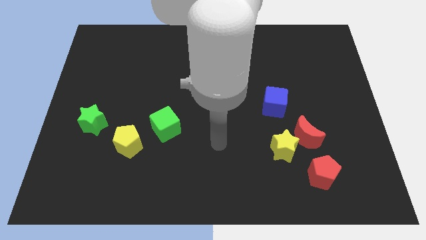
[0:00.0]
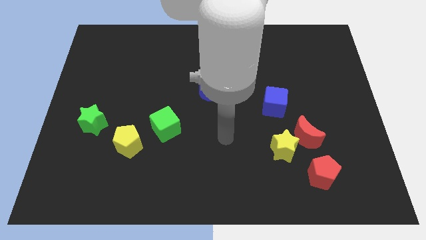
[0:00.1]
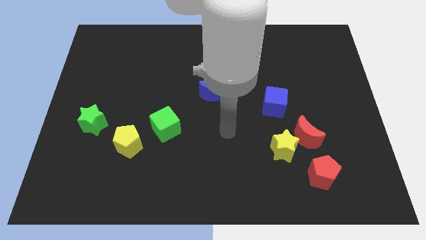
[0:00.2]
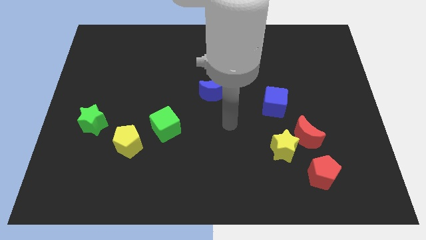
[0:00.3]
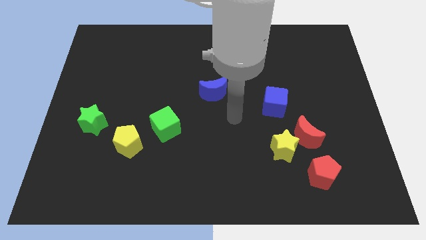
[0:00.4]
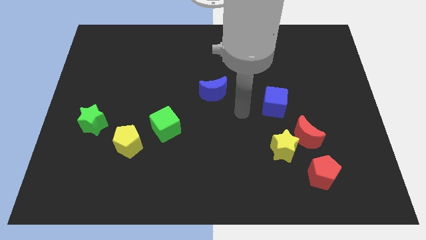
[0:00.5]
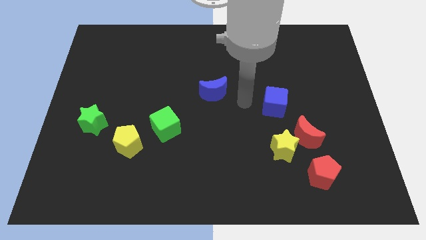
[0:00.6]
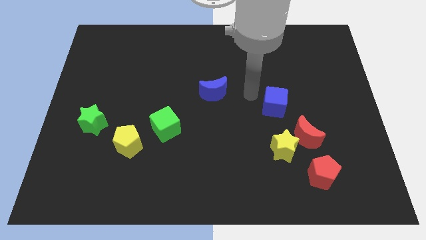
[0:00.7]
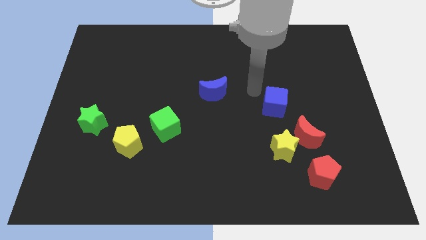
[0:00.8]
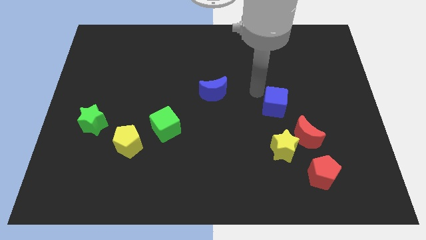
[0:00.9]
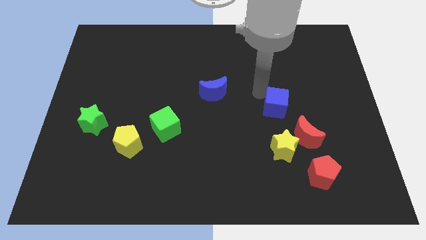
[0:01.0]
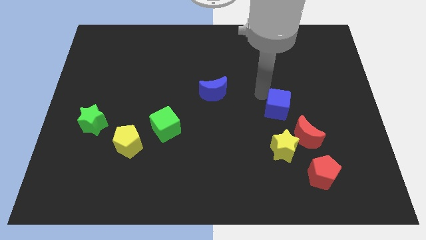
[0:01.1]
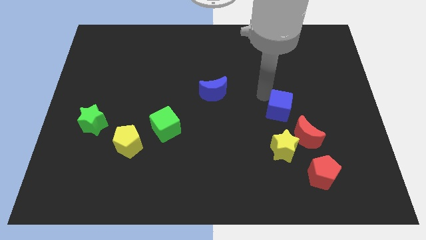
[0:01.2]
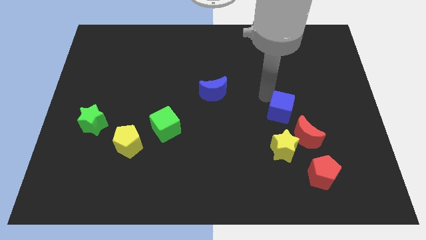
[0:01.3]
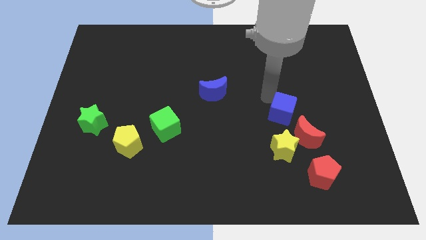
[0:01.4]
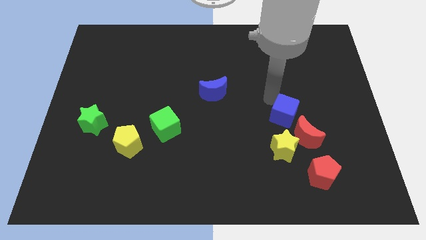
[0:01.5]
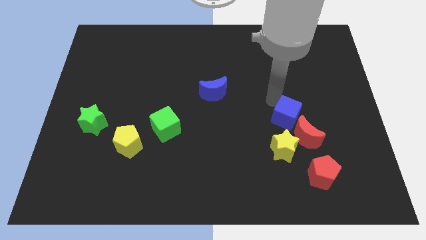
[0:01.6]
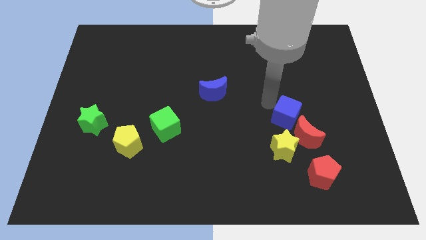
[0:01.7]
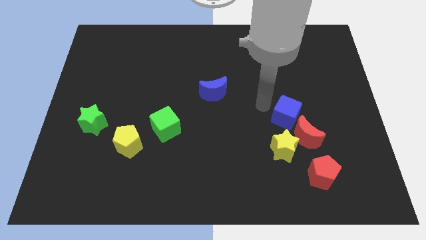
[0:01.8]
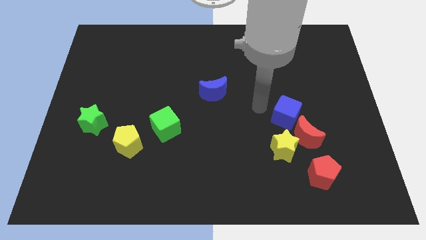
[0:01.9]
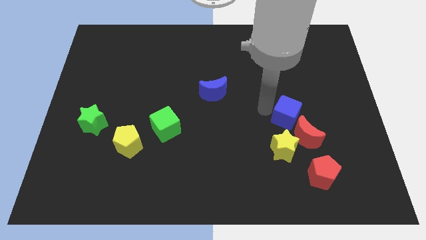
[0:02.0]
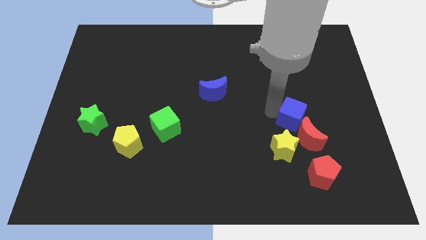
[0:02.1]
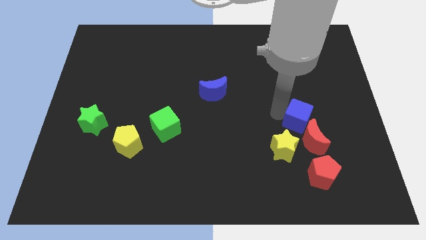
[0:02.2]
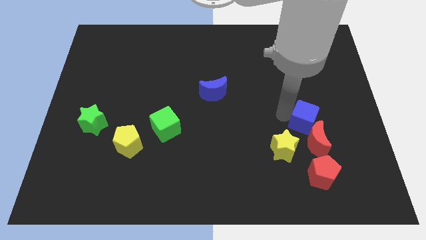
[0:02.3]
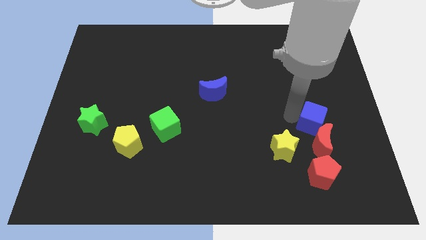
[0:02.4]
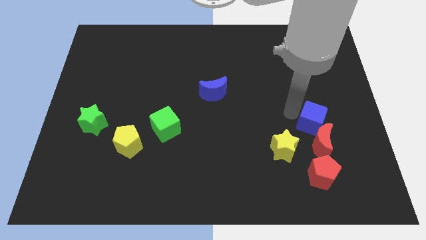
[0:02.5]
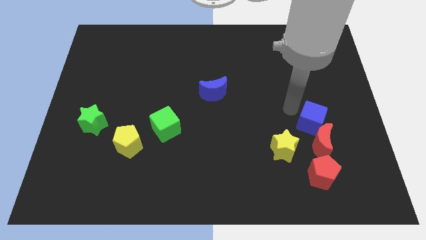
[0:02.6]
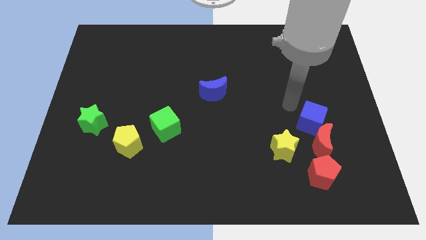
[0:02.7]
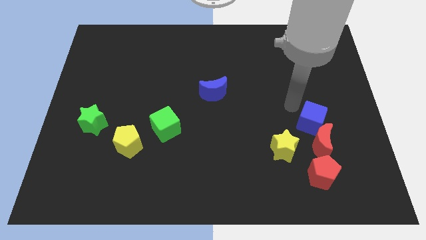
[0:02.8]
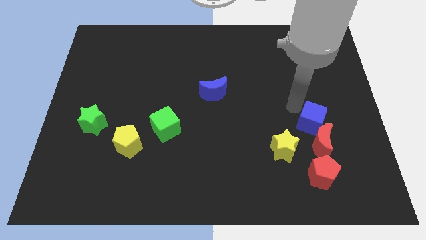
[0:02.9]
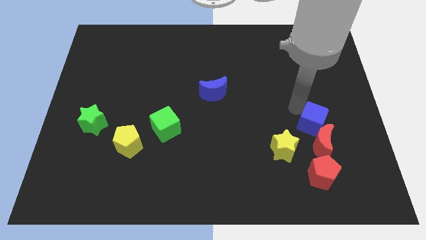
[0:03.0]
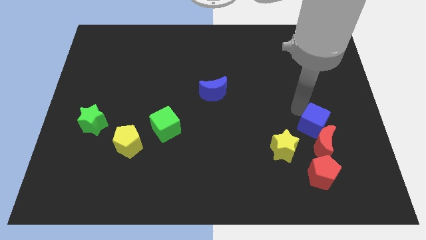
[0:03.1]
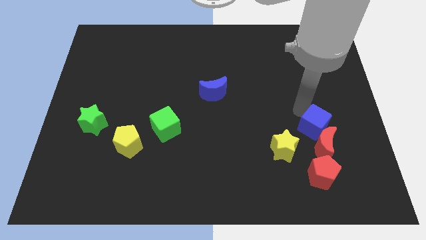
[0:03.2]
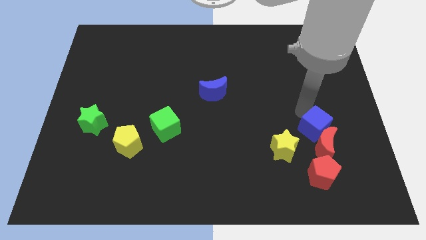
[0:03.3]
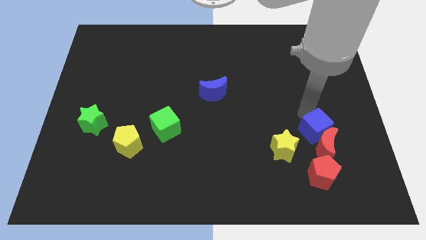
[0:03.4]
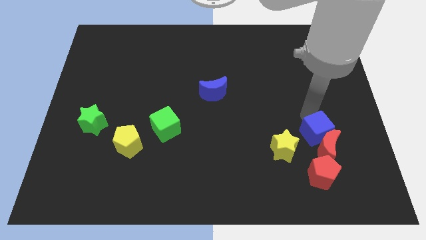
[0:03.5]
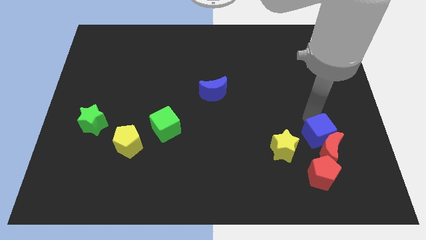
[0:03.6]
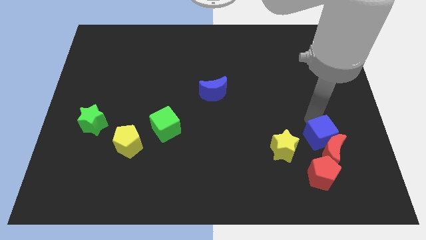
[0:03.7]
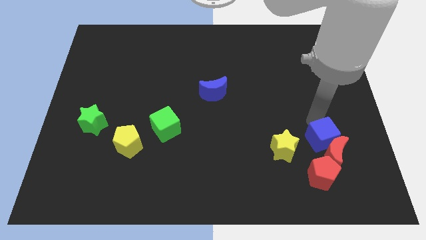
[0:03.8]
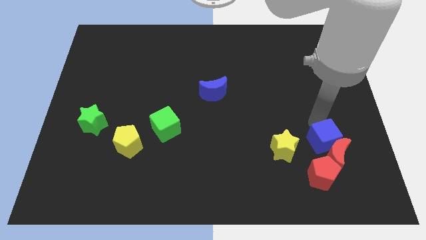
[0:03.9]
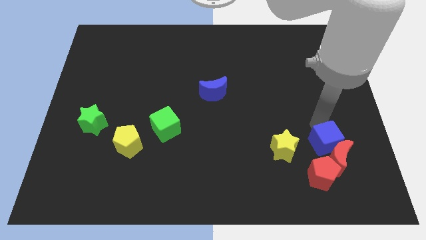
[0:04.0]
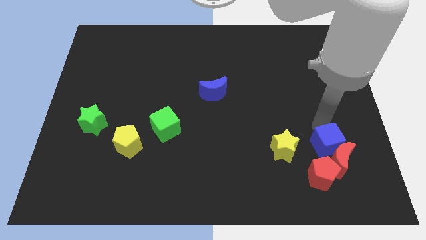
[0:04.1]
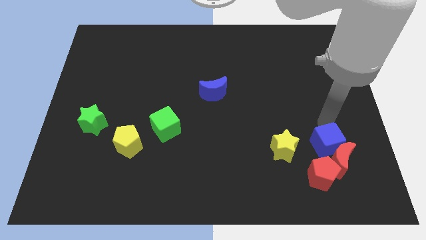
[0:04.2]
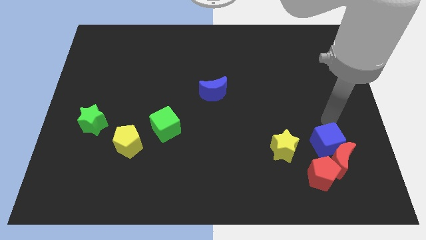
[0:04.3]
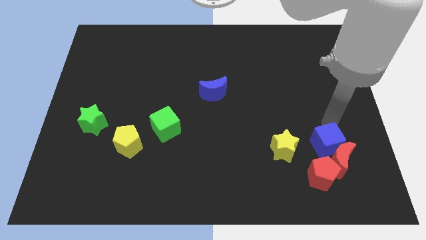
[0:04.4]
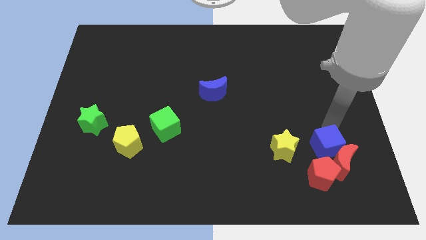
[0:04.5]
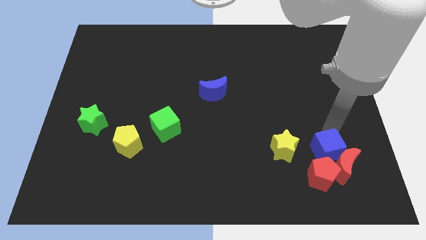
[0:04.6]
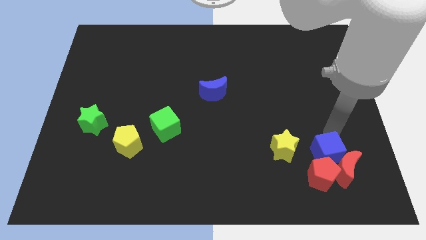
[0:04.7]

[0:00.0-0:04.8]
slide the blue cube towards the red pentagon

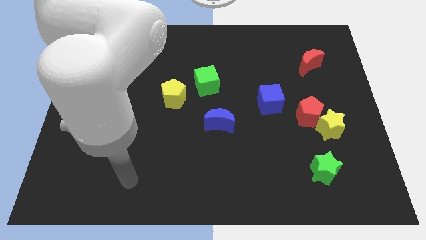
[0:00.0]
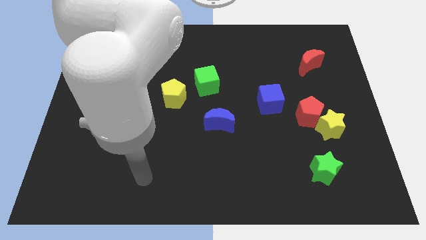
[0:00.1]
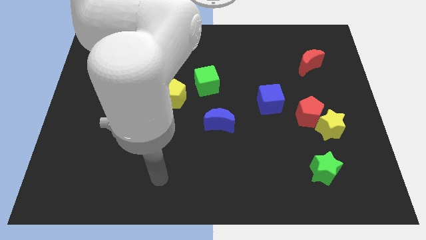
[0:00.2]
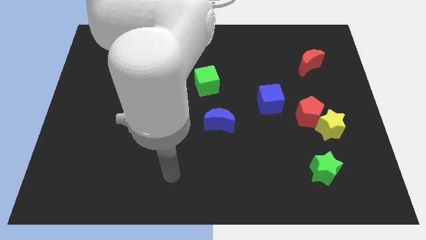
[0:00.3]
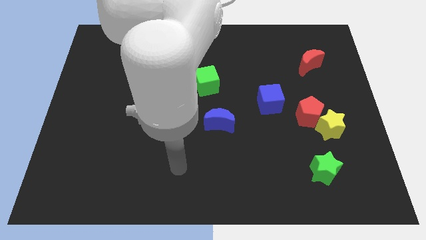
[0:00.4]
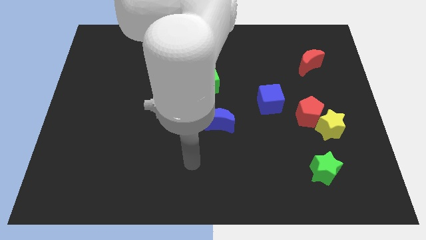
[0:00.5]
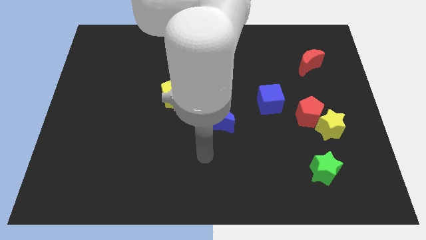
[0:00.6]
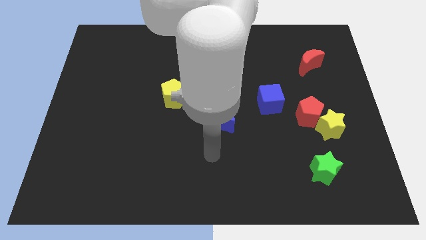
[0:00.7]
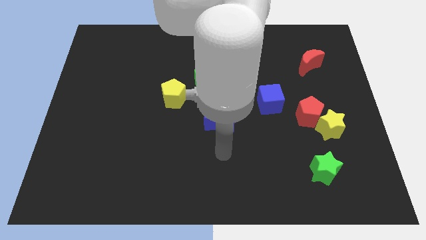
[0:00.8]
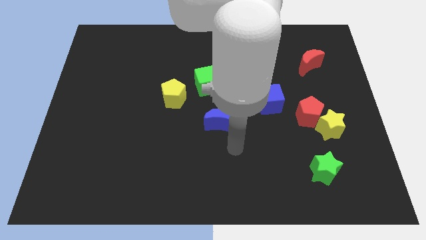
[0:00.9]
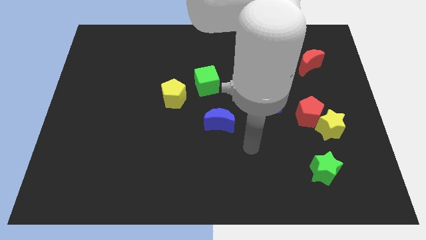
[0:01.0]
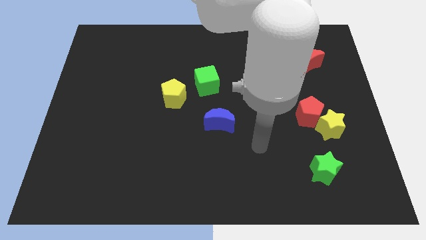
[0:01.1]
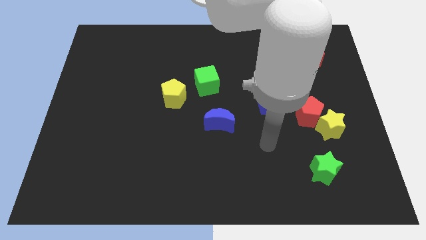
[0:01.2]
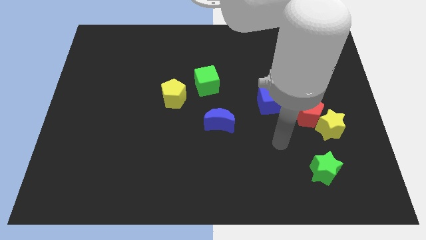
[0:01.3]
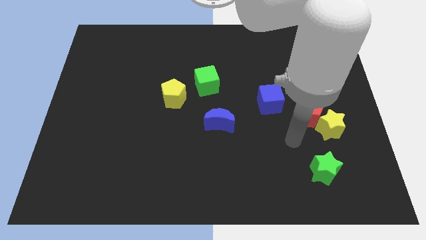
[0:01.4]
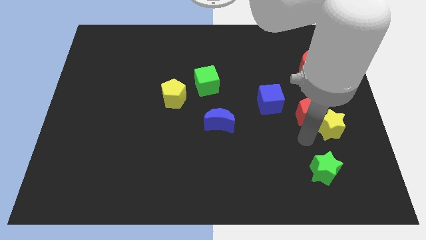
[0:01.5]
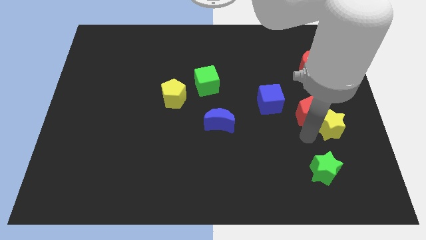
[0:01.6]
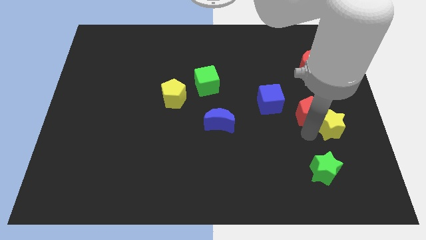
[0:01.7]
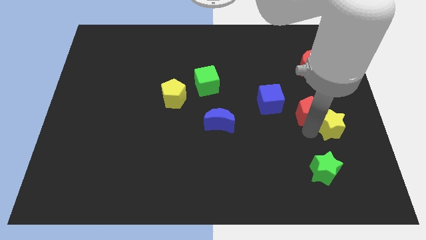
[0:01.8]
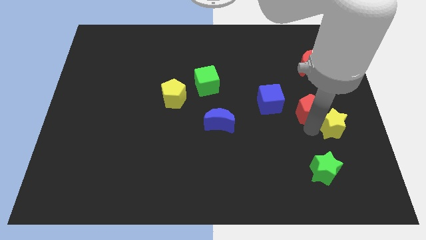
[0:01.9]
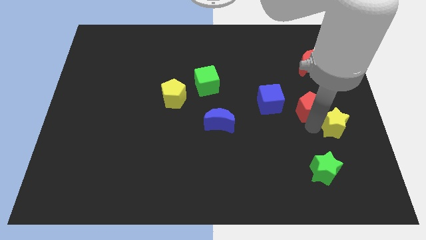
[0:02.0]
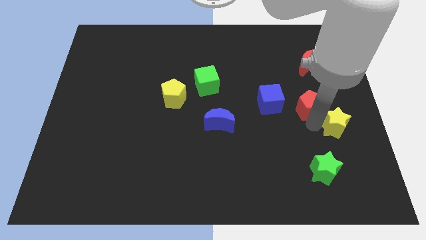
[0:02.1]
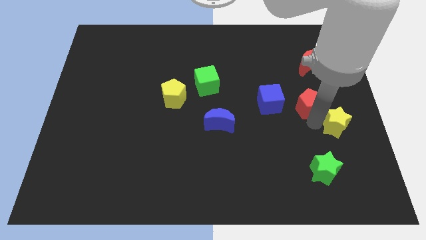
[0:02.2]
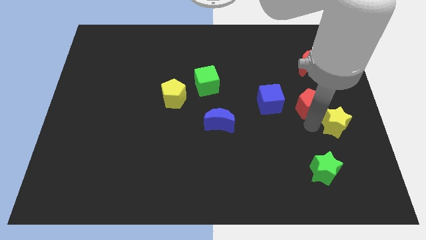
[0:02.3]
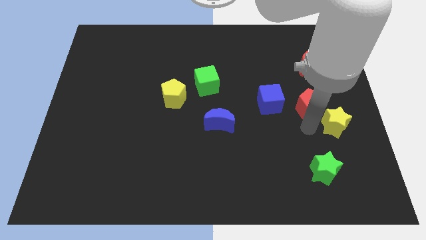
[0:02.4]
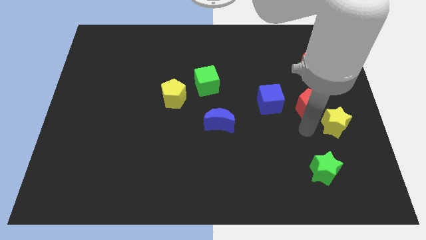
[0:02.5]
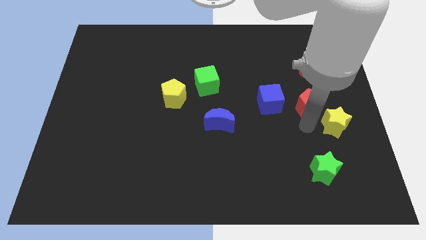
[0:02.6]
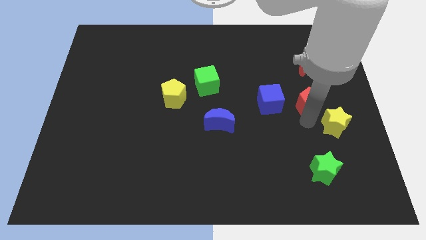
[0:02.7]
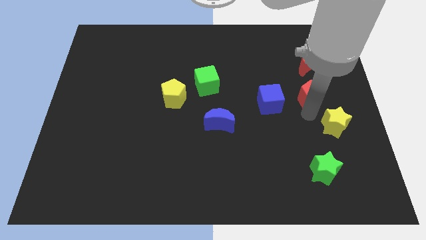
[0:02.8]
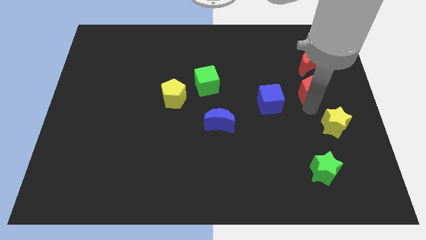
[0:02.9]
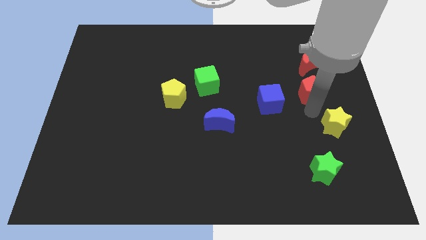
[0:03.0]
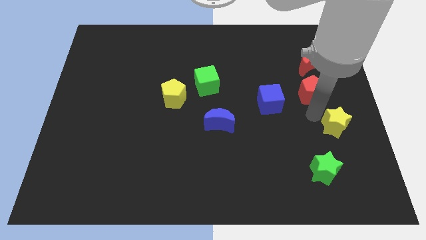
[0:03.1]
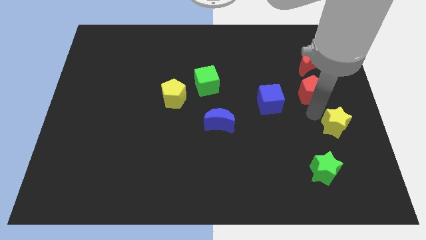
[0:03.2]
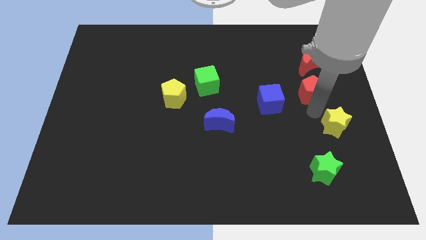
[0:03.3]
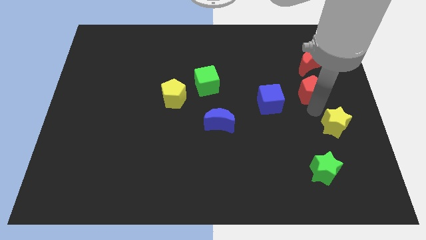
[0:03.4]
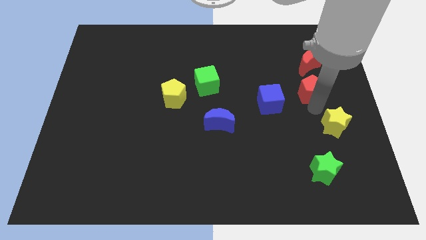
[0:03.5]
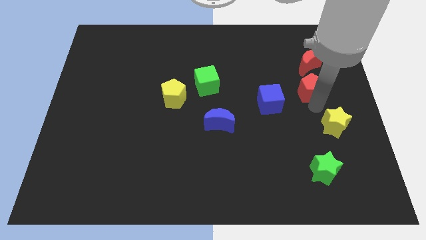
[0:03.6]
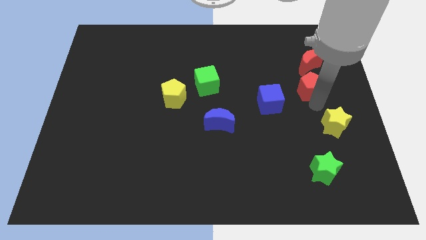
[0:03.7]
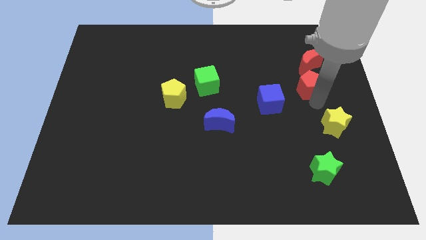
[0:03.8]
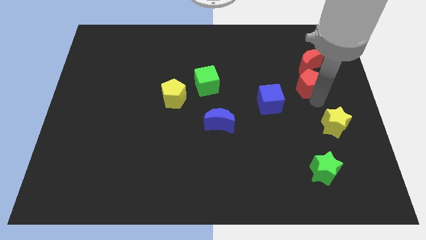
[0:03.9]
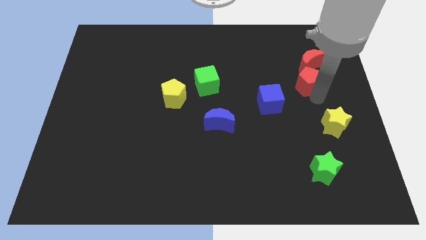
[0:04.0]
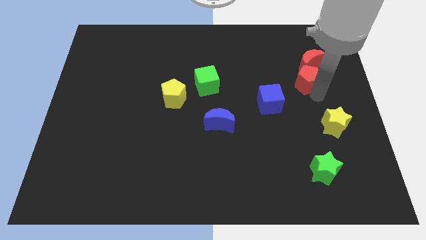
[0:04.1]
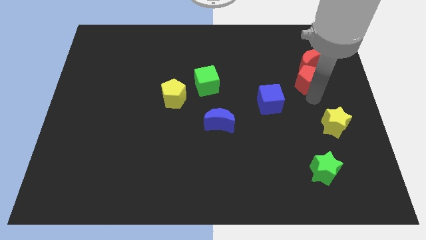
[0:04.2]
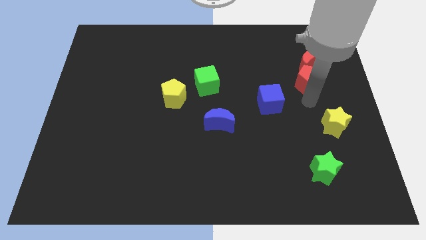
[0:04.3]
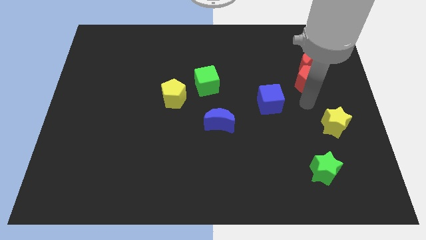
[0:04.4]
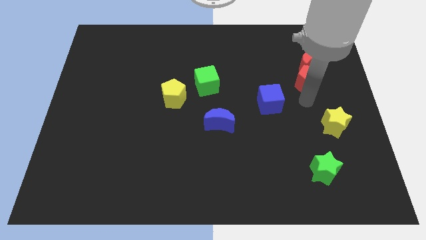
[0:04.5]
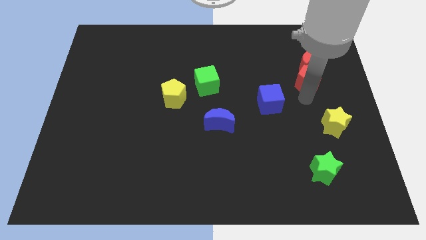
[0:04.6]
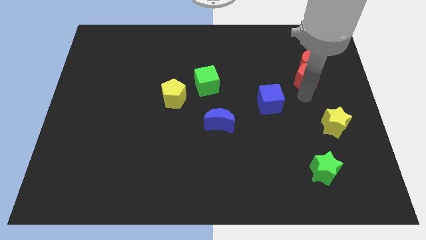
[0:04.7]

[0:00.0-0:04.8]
push the red pentagon close to the red moon
